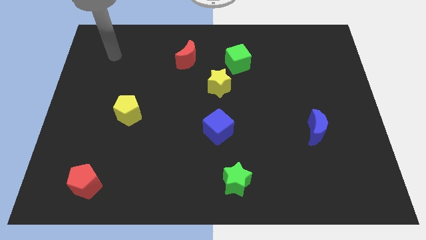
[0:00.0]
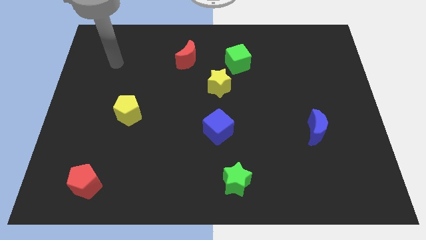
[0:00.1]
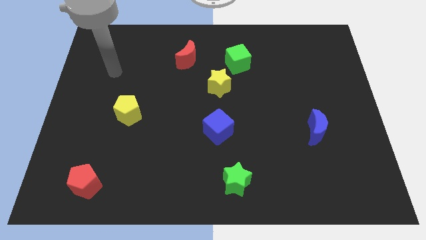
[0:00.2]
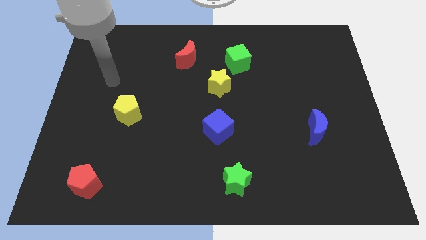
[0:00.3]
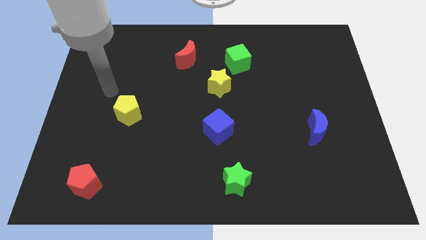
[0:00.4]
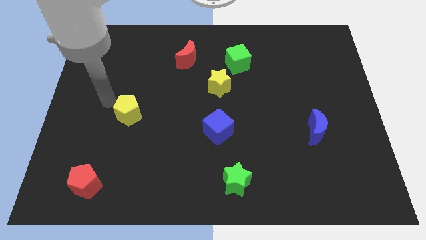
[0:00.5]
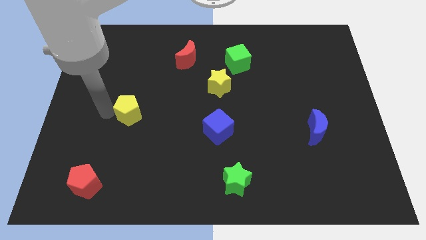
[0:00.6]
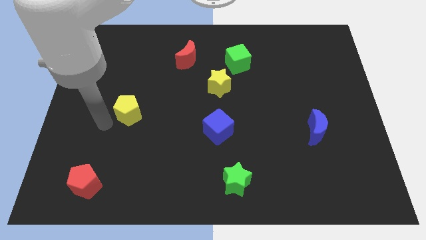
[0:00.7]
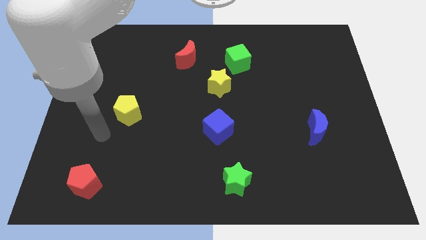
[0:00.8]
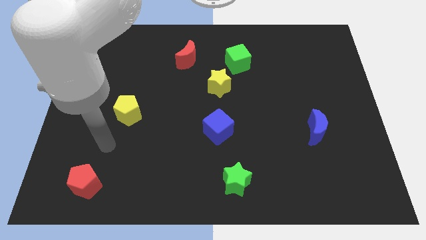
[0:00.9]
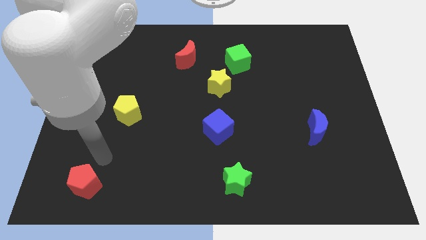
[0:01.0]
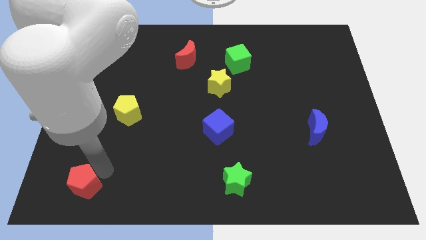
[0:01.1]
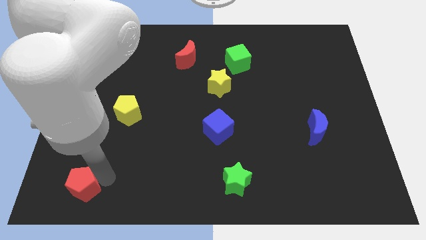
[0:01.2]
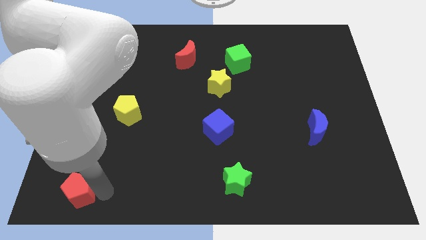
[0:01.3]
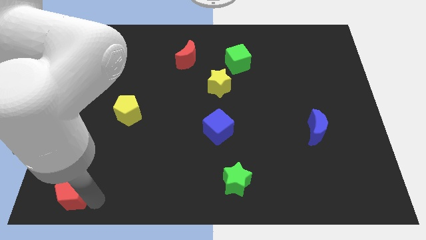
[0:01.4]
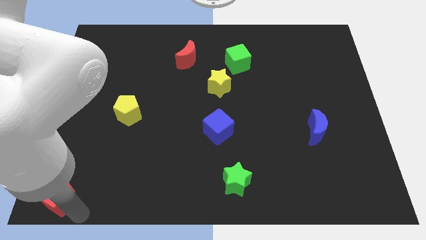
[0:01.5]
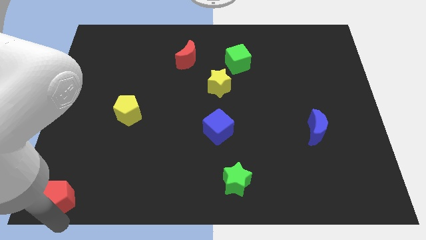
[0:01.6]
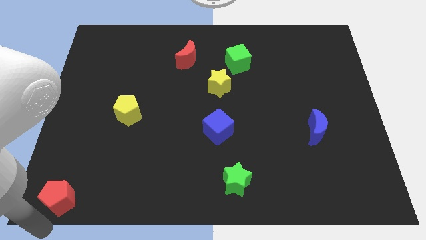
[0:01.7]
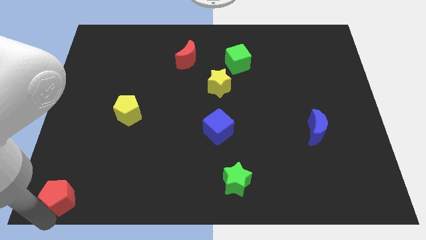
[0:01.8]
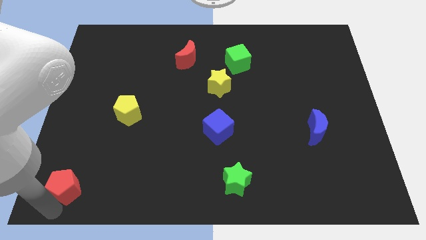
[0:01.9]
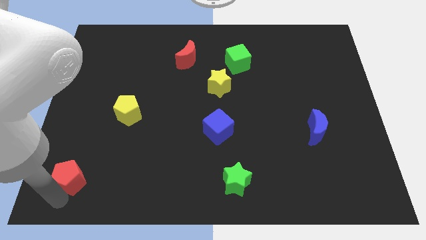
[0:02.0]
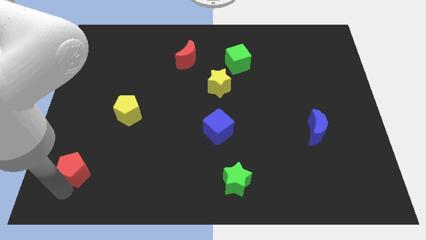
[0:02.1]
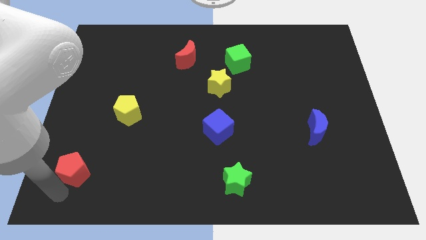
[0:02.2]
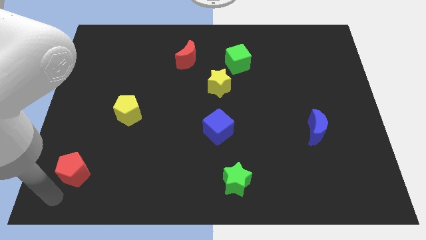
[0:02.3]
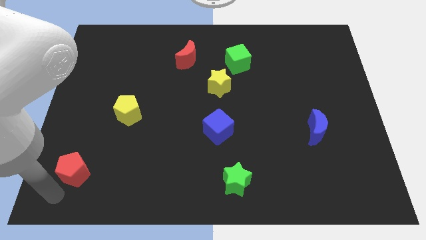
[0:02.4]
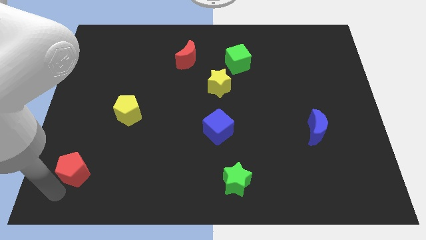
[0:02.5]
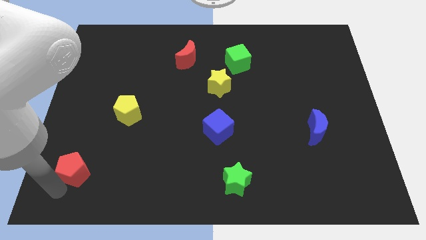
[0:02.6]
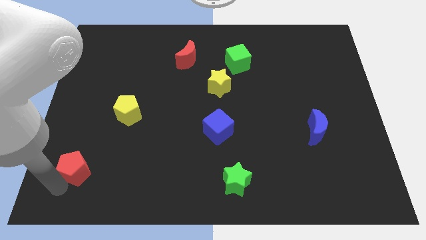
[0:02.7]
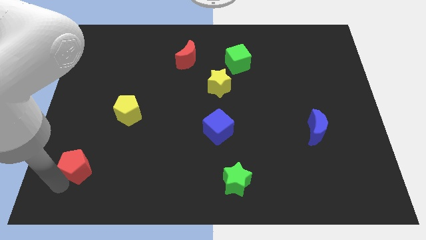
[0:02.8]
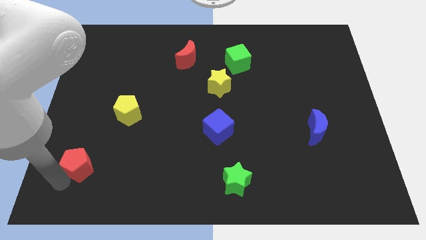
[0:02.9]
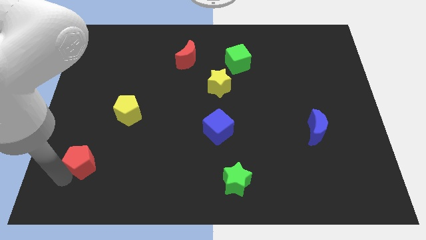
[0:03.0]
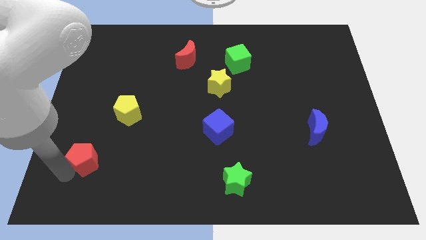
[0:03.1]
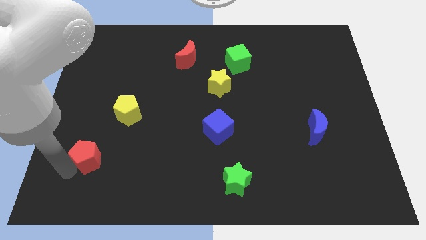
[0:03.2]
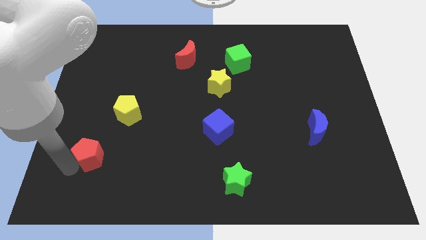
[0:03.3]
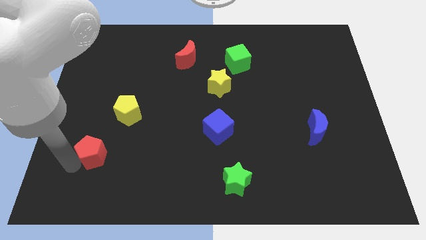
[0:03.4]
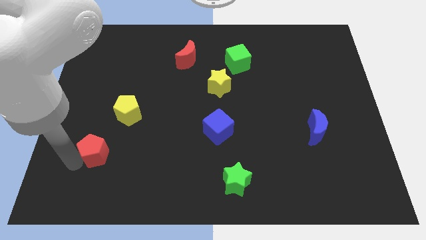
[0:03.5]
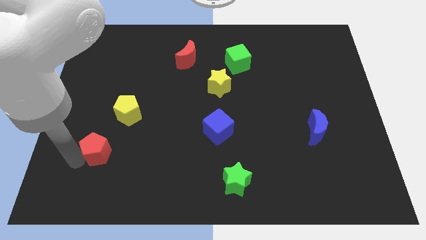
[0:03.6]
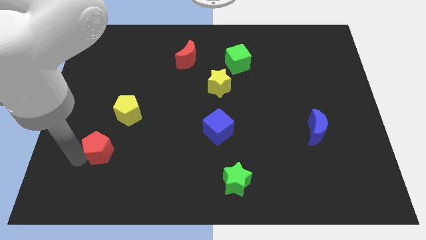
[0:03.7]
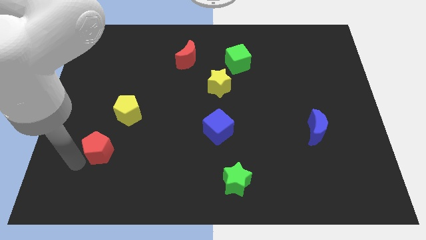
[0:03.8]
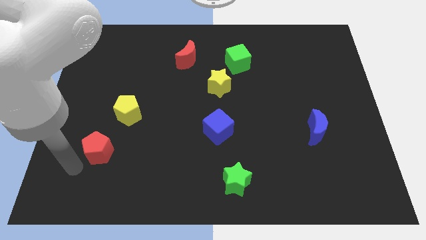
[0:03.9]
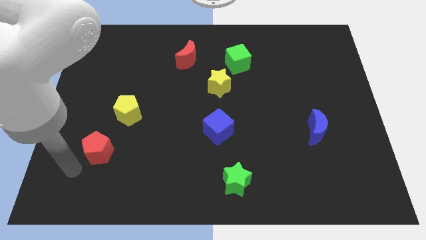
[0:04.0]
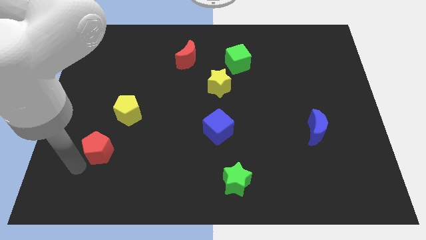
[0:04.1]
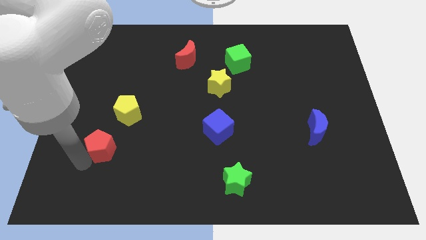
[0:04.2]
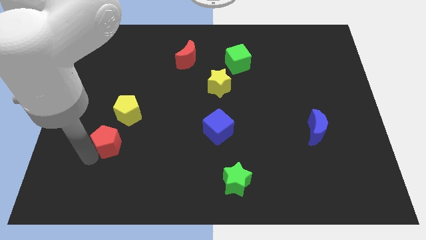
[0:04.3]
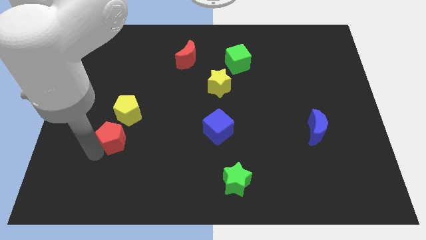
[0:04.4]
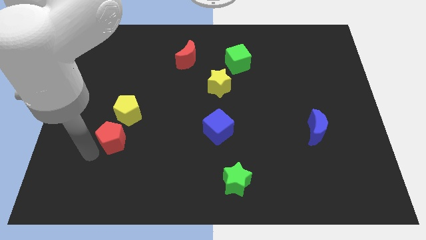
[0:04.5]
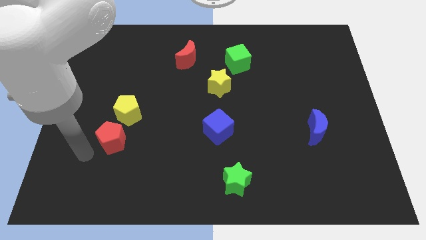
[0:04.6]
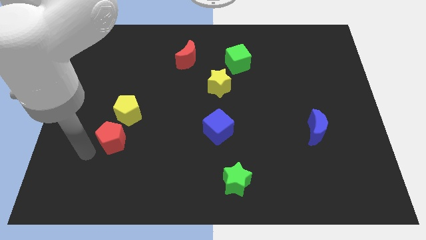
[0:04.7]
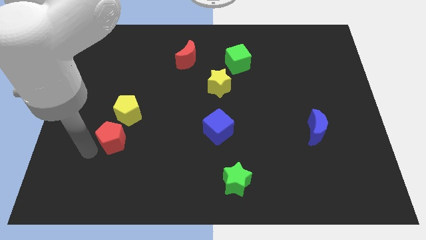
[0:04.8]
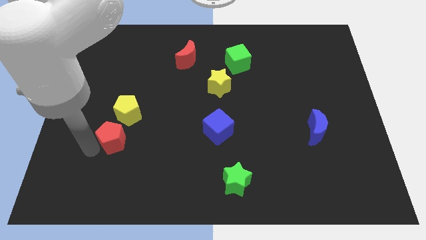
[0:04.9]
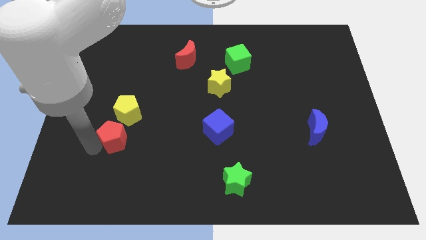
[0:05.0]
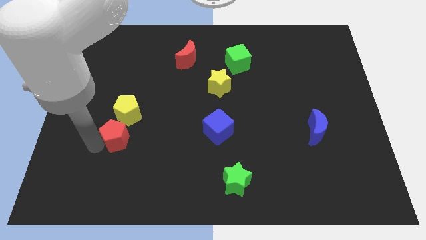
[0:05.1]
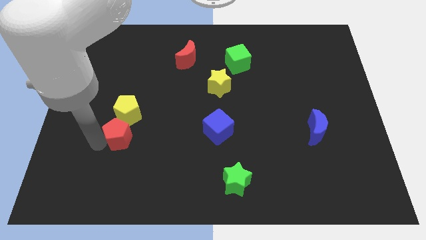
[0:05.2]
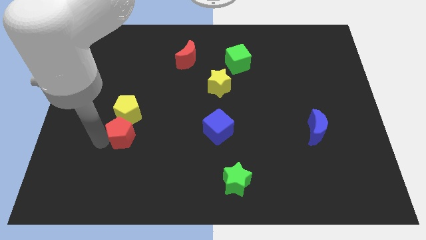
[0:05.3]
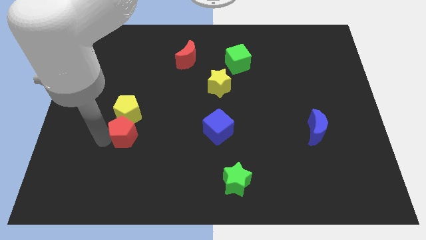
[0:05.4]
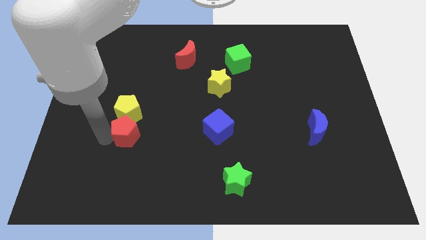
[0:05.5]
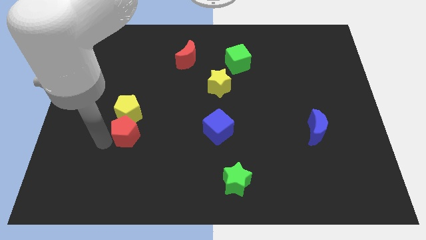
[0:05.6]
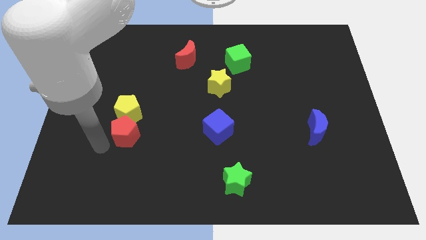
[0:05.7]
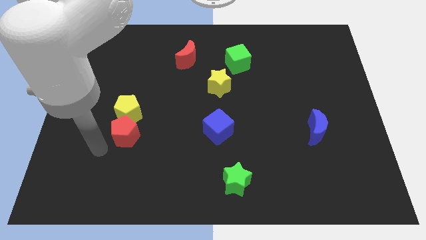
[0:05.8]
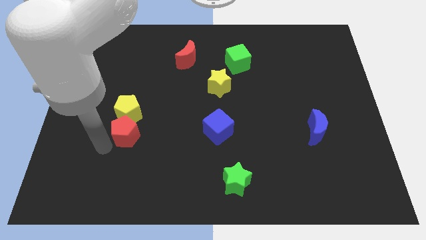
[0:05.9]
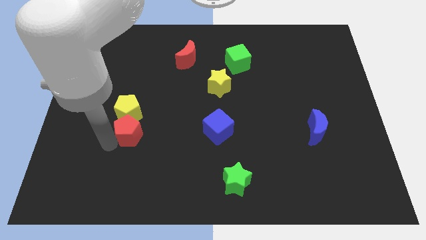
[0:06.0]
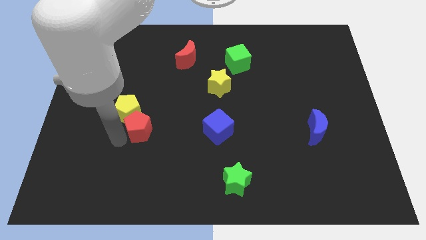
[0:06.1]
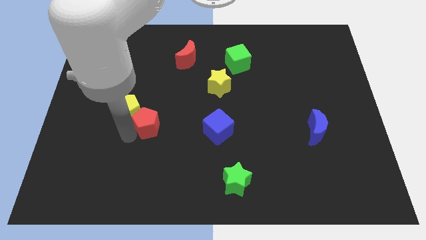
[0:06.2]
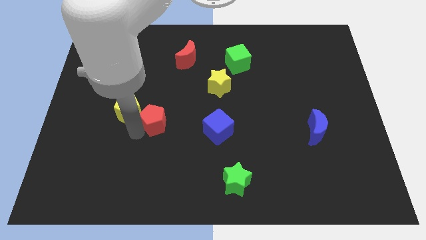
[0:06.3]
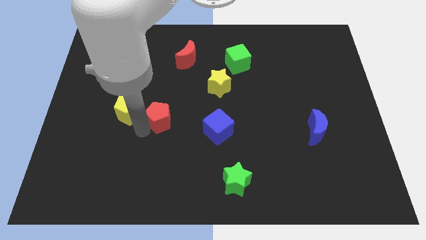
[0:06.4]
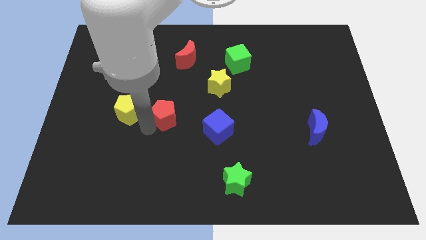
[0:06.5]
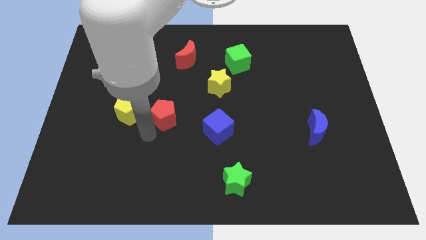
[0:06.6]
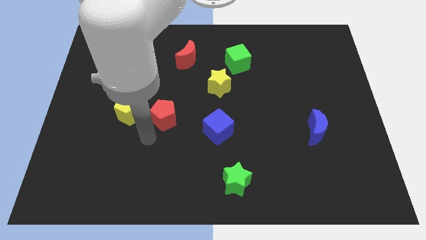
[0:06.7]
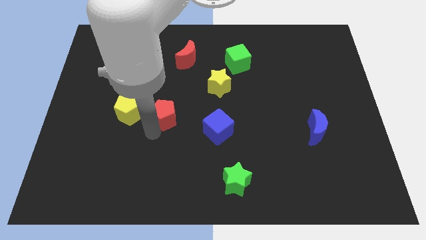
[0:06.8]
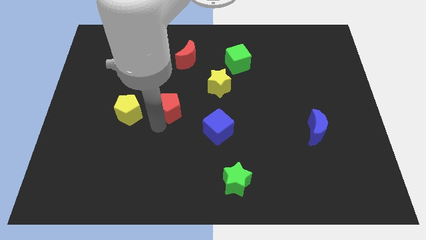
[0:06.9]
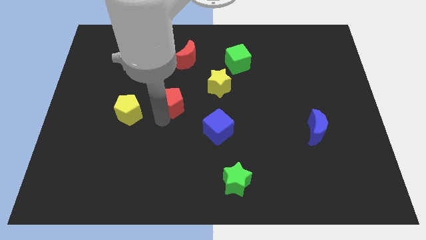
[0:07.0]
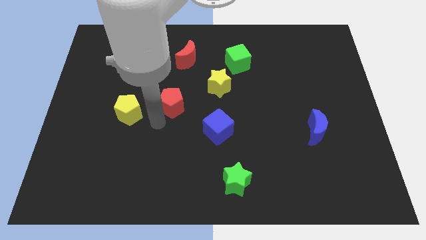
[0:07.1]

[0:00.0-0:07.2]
put the red pentagon to the bottom of the red moon

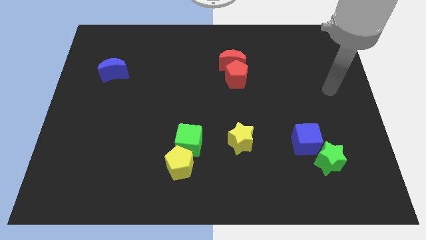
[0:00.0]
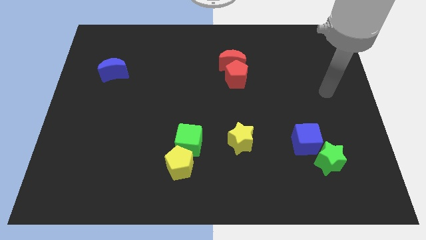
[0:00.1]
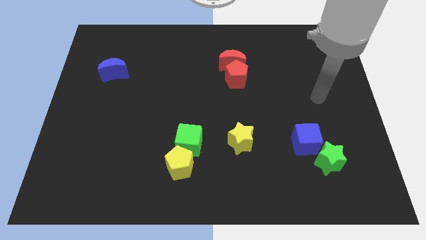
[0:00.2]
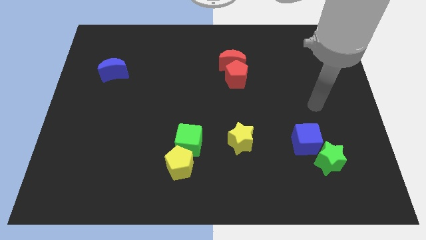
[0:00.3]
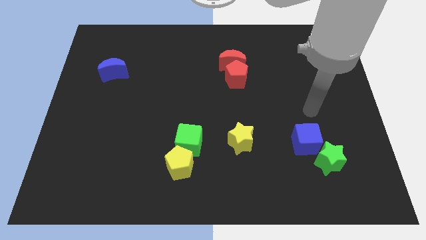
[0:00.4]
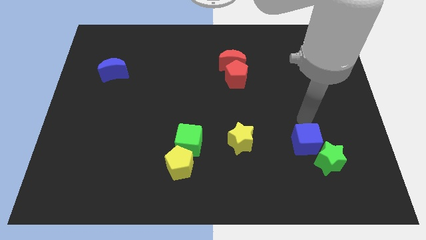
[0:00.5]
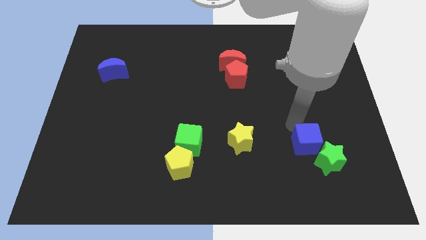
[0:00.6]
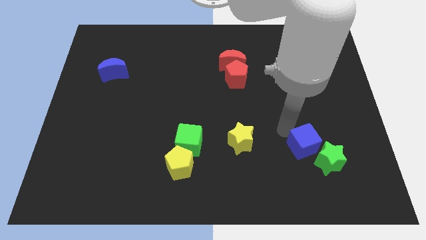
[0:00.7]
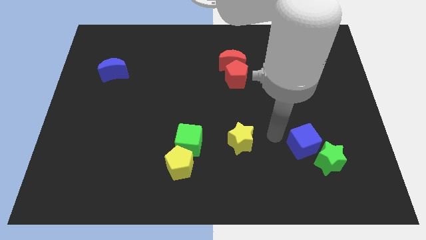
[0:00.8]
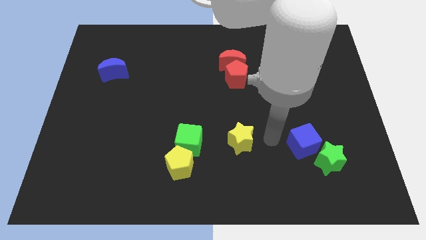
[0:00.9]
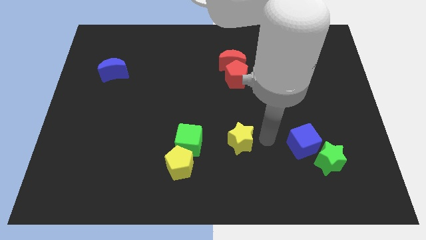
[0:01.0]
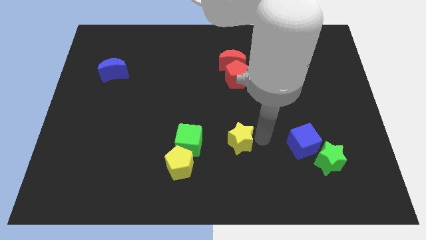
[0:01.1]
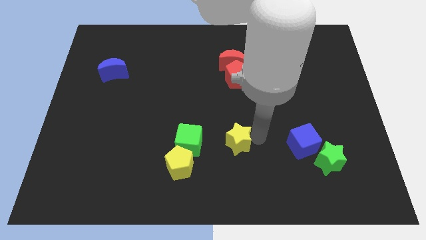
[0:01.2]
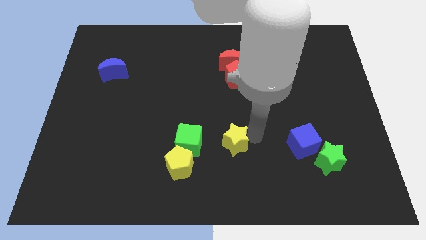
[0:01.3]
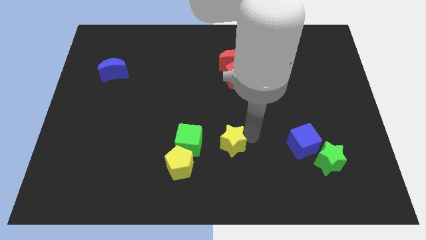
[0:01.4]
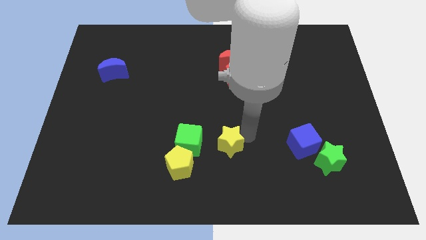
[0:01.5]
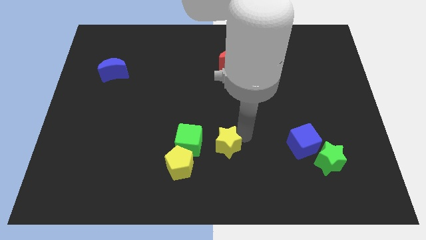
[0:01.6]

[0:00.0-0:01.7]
slide the yellow star to the top right side of the yellow pentagon
